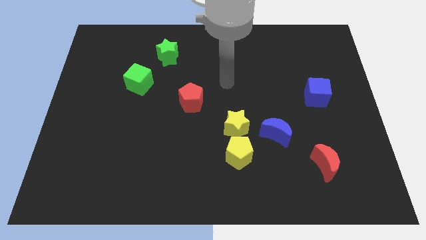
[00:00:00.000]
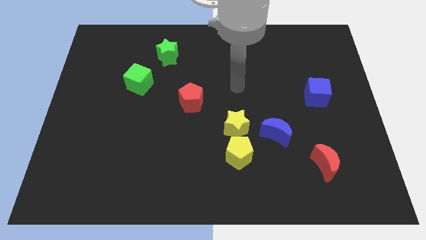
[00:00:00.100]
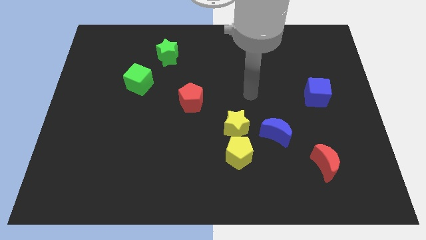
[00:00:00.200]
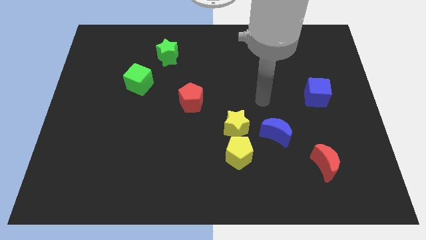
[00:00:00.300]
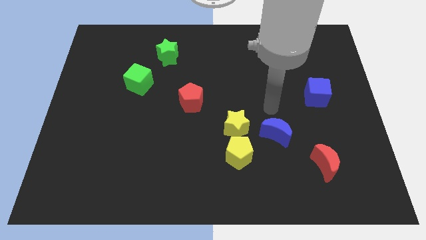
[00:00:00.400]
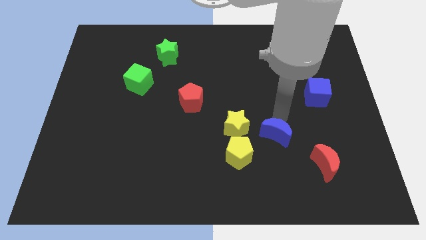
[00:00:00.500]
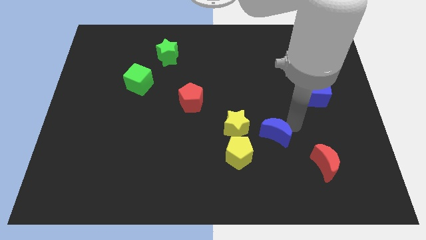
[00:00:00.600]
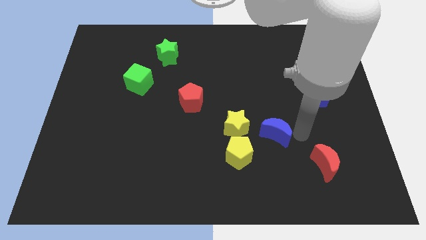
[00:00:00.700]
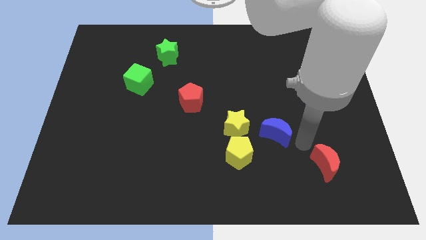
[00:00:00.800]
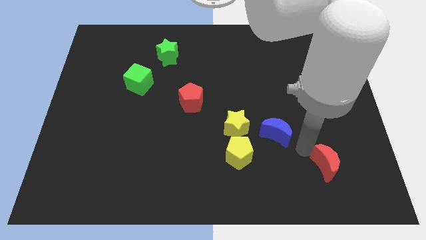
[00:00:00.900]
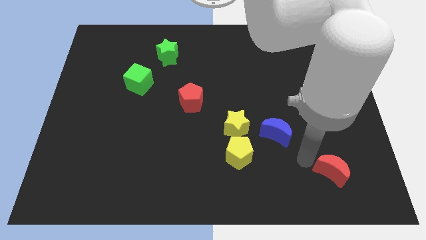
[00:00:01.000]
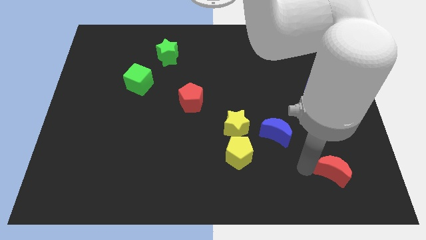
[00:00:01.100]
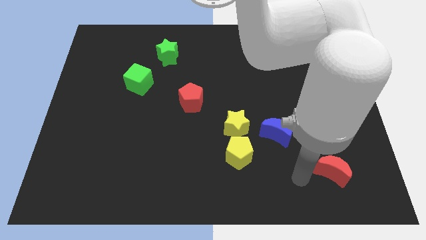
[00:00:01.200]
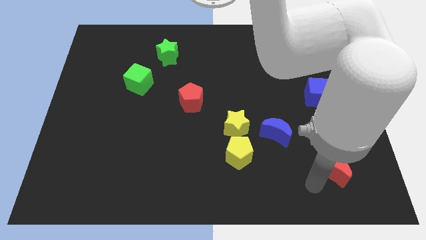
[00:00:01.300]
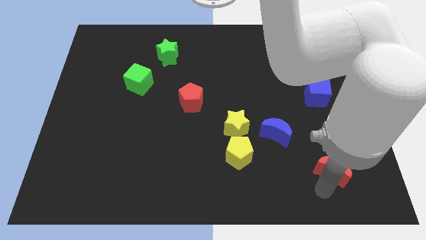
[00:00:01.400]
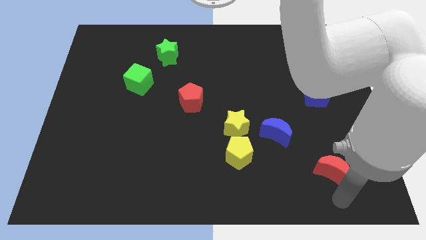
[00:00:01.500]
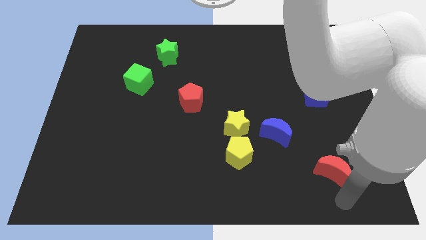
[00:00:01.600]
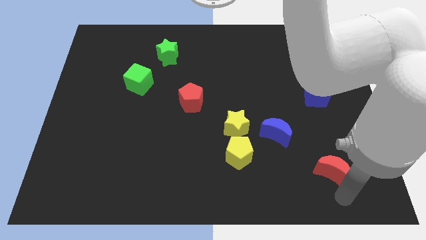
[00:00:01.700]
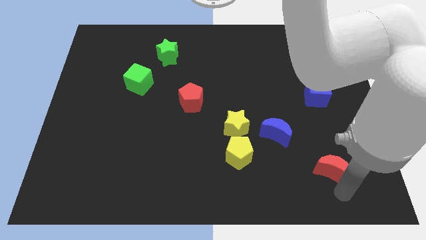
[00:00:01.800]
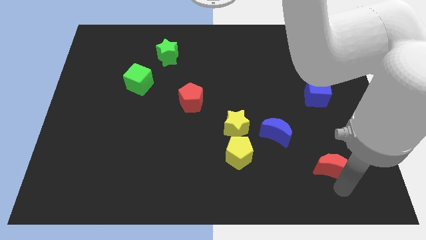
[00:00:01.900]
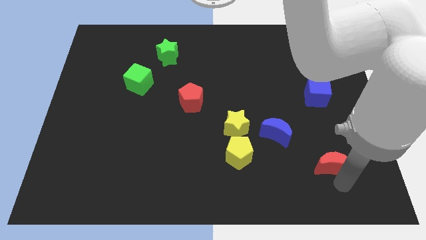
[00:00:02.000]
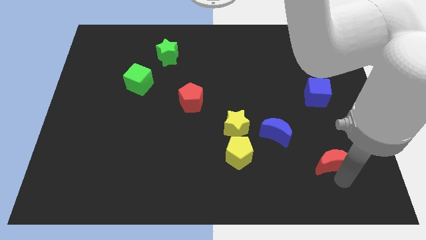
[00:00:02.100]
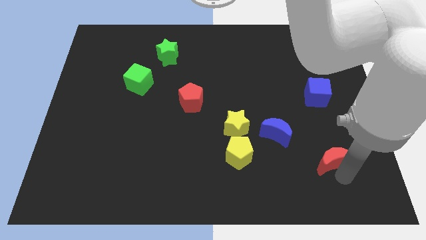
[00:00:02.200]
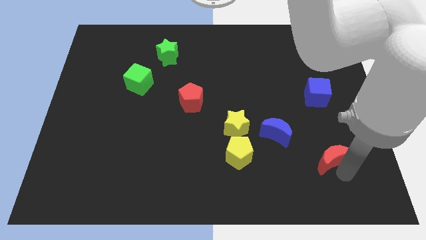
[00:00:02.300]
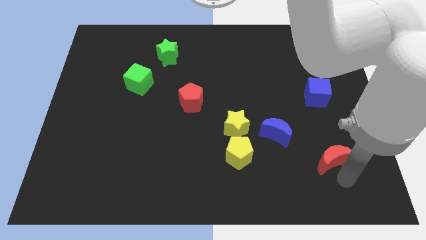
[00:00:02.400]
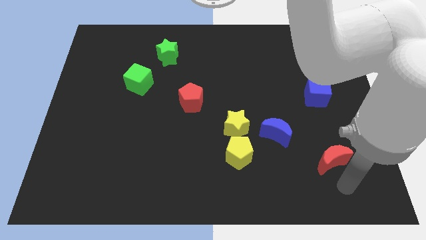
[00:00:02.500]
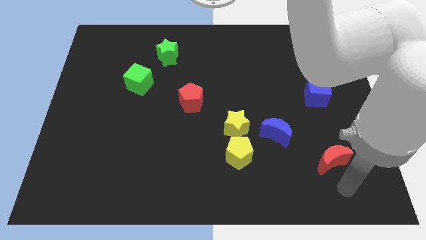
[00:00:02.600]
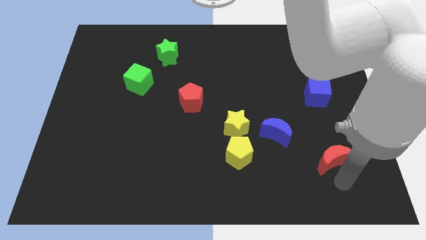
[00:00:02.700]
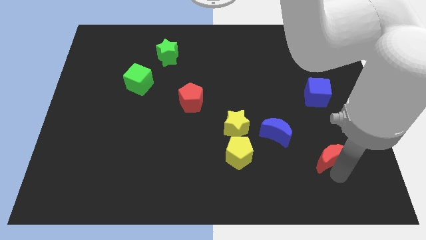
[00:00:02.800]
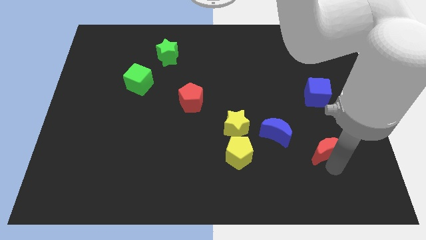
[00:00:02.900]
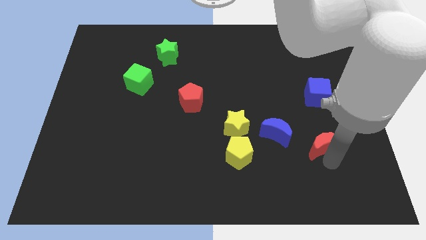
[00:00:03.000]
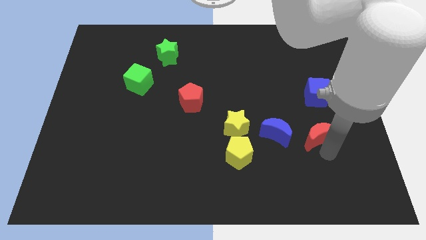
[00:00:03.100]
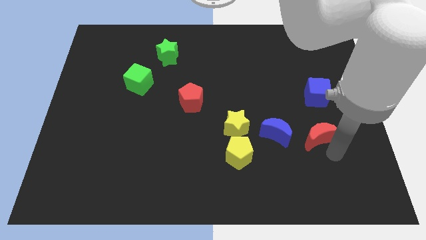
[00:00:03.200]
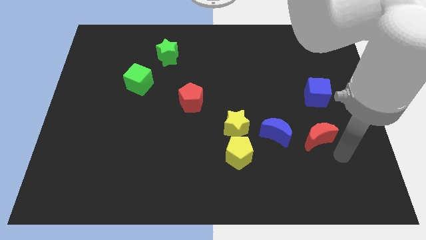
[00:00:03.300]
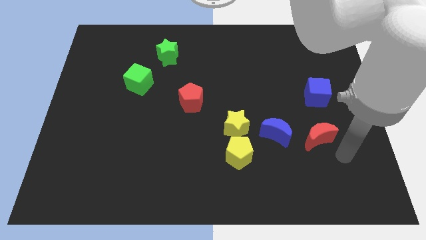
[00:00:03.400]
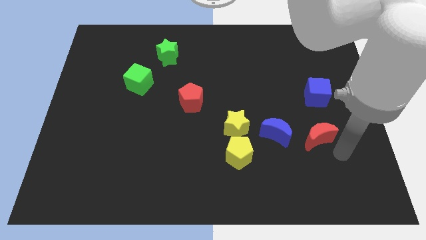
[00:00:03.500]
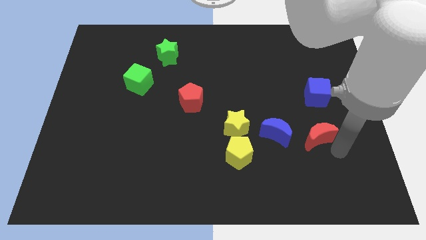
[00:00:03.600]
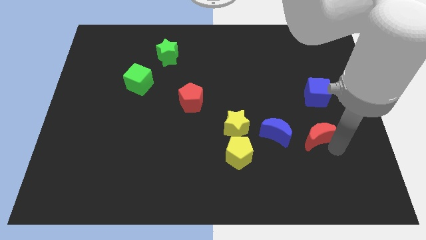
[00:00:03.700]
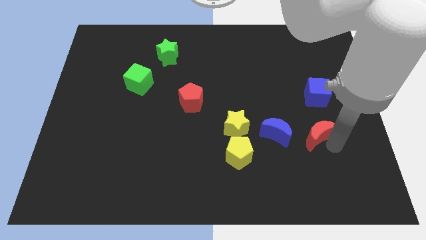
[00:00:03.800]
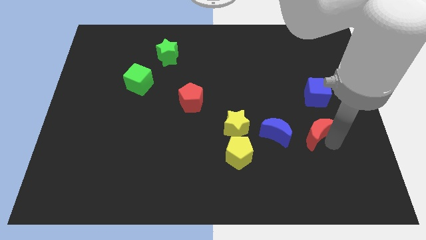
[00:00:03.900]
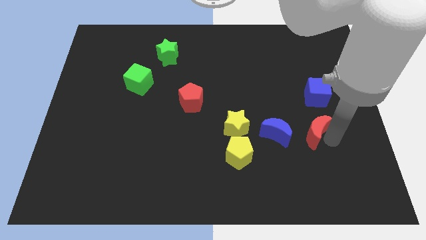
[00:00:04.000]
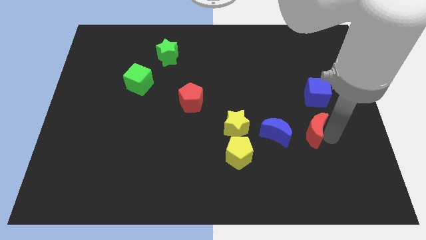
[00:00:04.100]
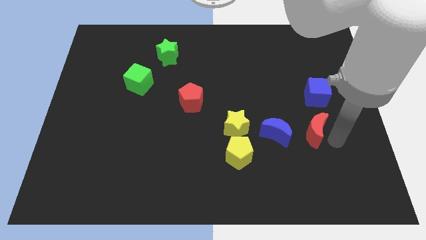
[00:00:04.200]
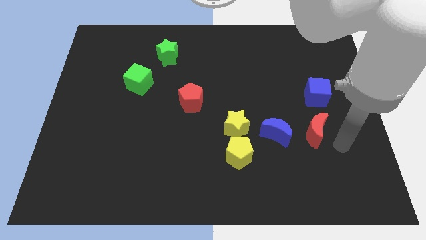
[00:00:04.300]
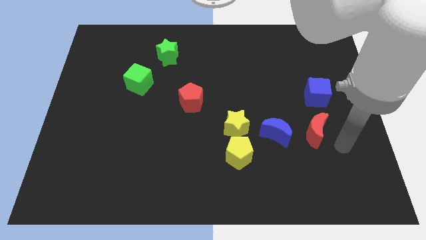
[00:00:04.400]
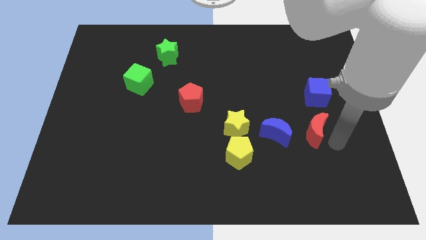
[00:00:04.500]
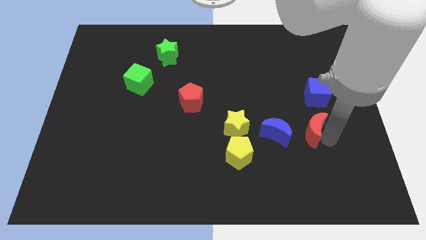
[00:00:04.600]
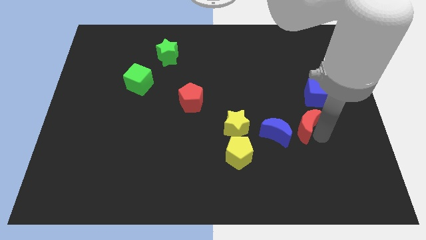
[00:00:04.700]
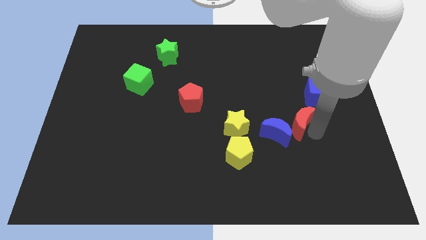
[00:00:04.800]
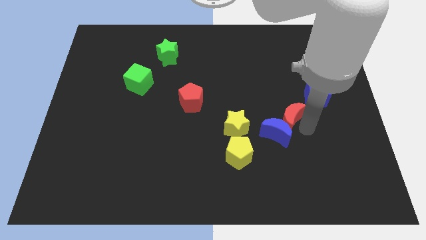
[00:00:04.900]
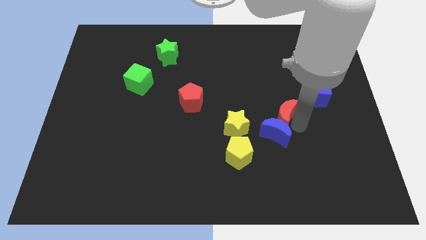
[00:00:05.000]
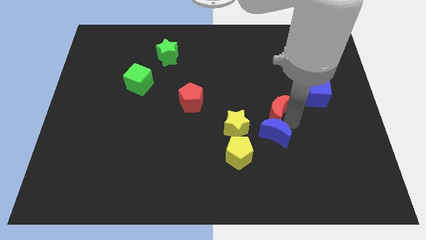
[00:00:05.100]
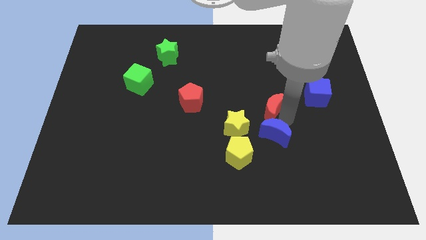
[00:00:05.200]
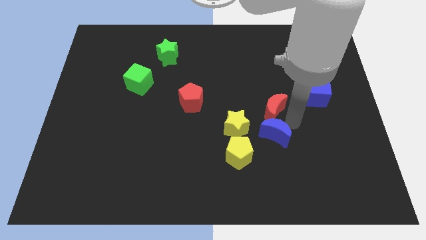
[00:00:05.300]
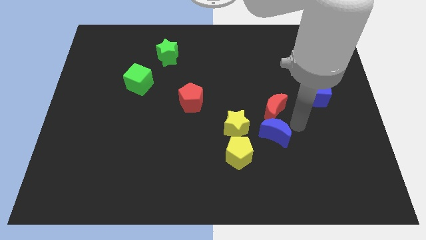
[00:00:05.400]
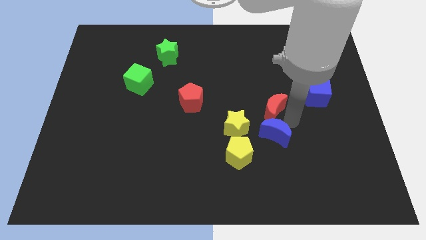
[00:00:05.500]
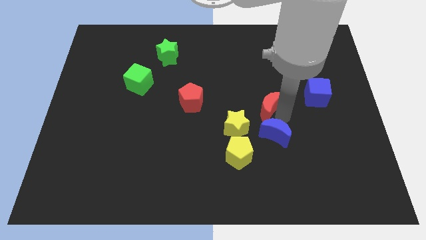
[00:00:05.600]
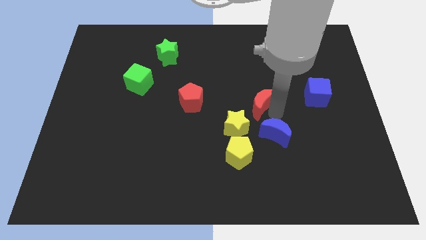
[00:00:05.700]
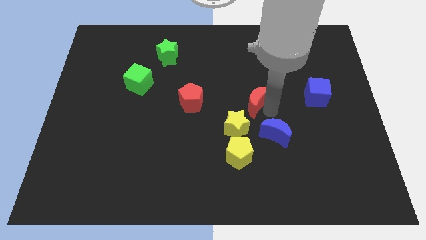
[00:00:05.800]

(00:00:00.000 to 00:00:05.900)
push the red moon up and then left

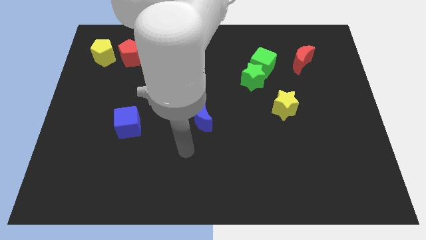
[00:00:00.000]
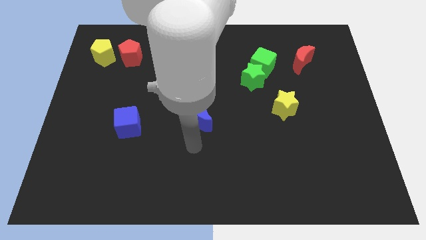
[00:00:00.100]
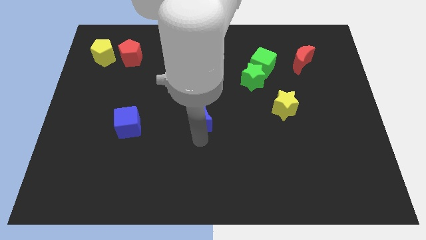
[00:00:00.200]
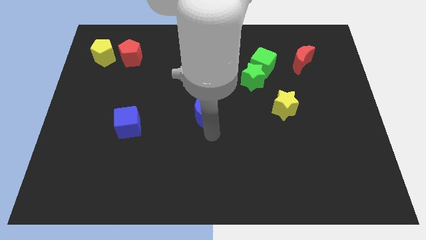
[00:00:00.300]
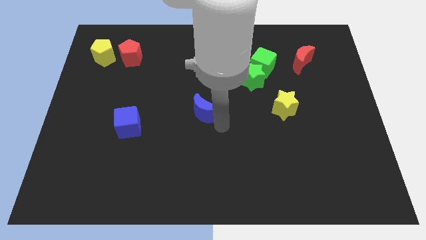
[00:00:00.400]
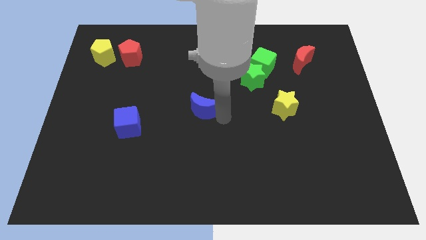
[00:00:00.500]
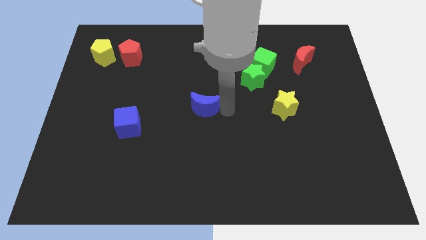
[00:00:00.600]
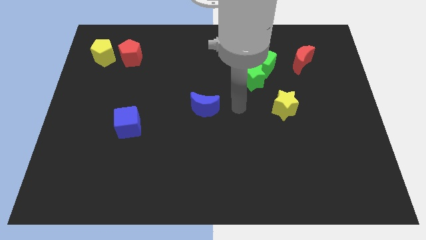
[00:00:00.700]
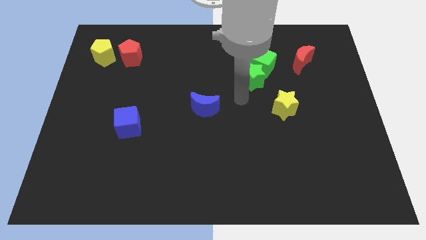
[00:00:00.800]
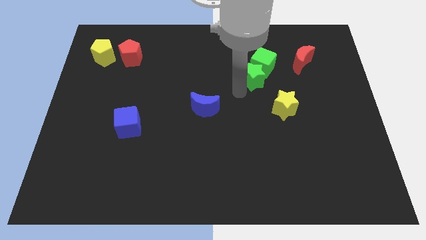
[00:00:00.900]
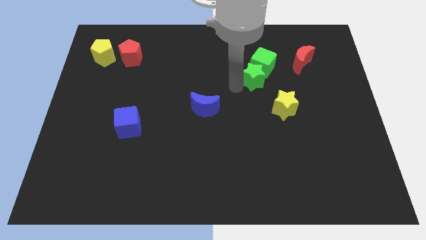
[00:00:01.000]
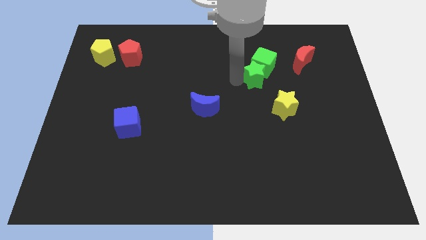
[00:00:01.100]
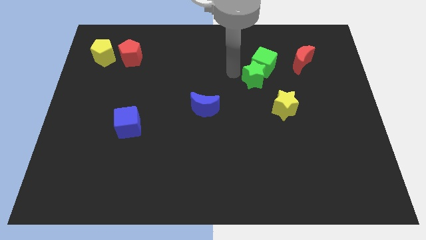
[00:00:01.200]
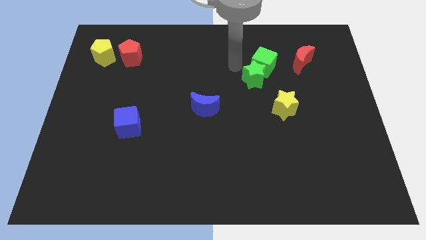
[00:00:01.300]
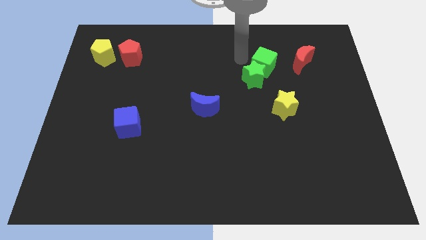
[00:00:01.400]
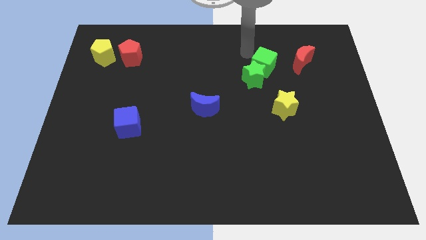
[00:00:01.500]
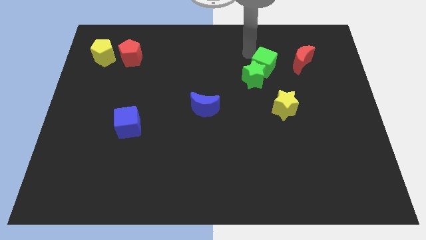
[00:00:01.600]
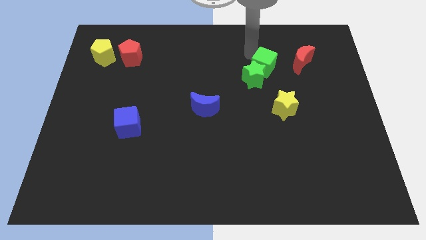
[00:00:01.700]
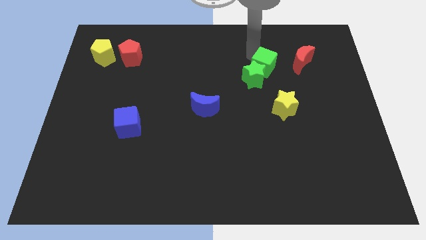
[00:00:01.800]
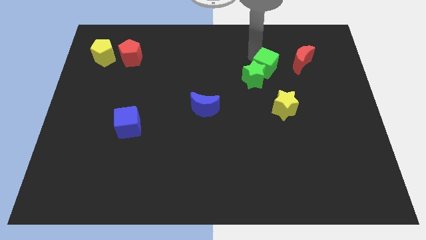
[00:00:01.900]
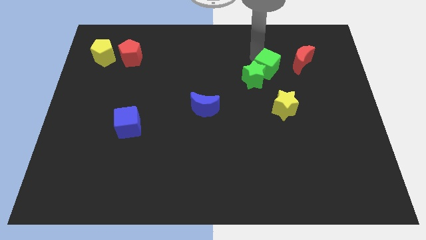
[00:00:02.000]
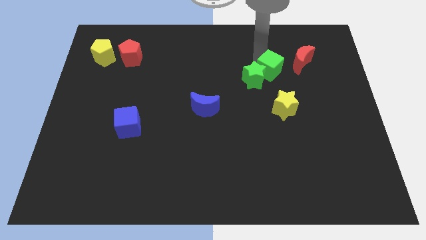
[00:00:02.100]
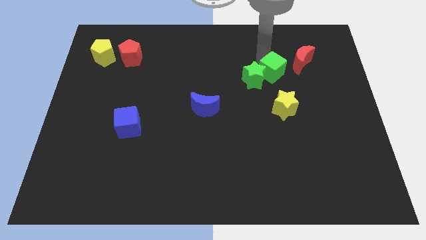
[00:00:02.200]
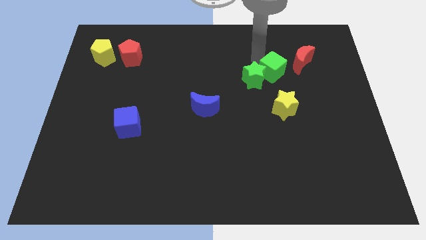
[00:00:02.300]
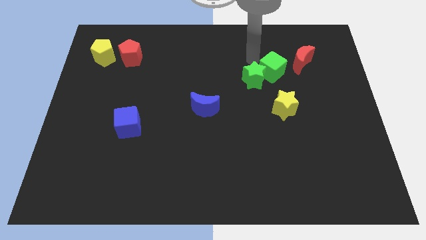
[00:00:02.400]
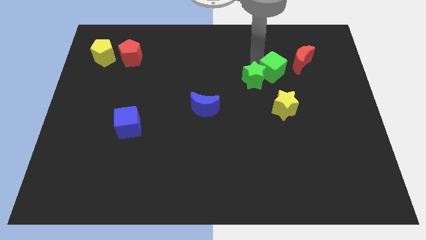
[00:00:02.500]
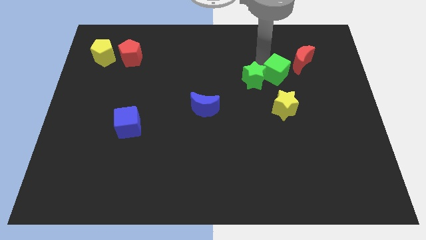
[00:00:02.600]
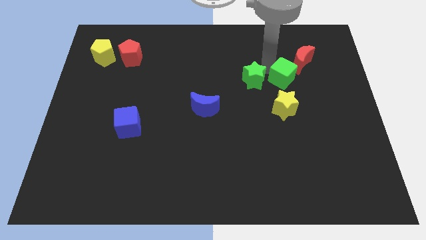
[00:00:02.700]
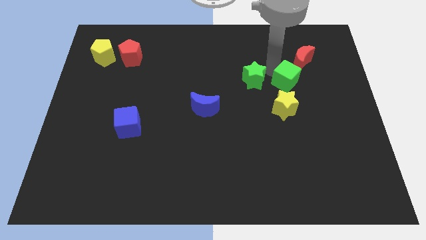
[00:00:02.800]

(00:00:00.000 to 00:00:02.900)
slightly move the green cube down and then right
